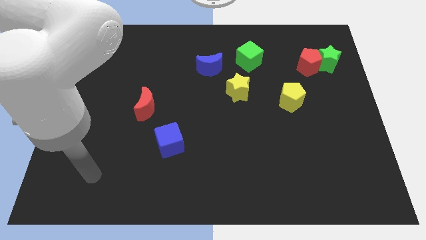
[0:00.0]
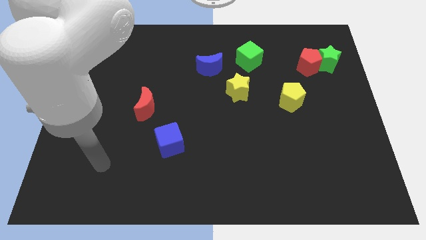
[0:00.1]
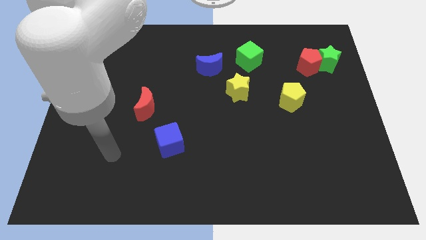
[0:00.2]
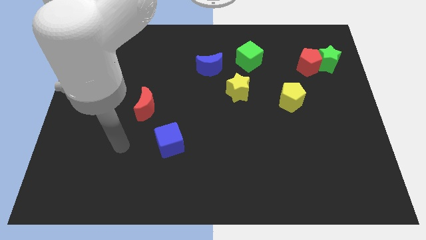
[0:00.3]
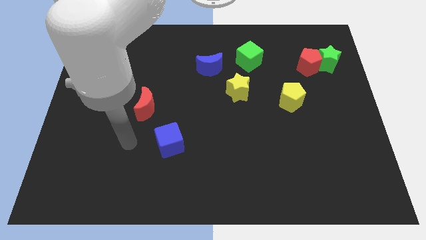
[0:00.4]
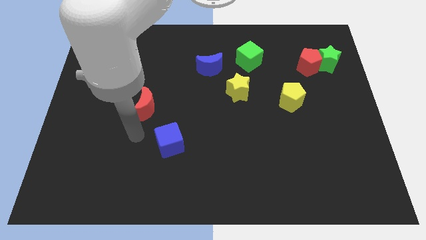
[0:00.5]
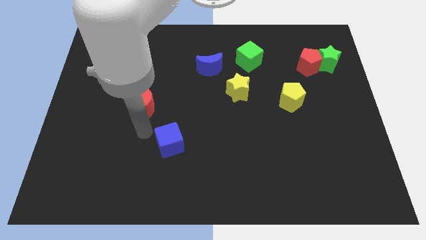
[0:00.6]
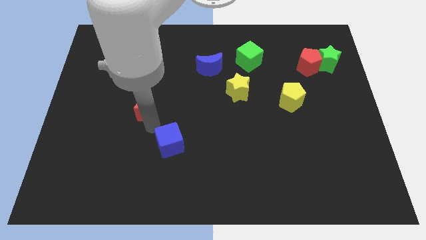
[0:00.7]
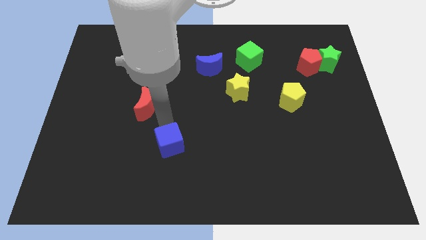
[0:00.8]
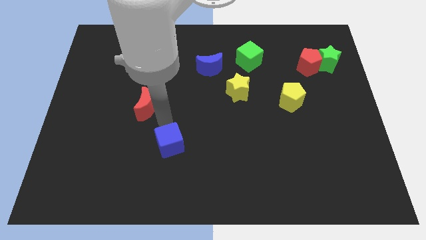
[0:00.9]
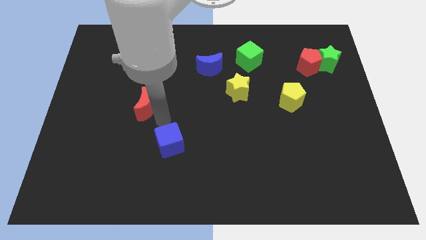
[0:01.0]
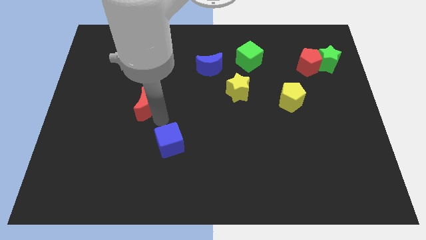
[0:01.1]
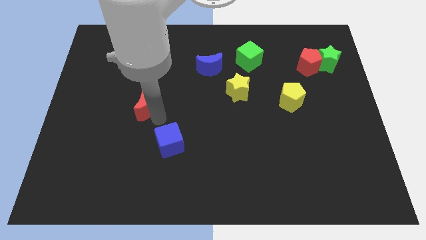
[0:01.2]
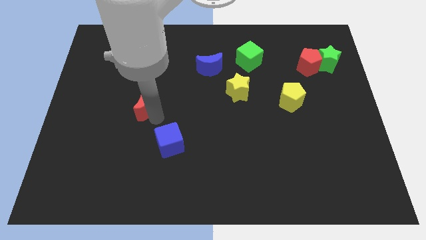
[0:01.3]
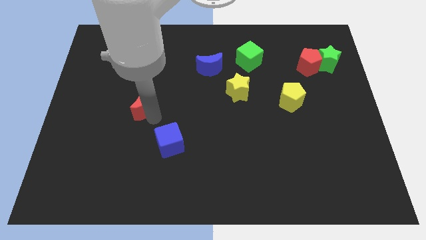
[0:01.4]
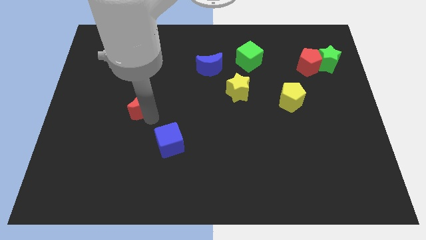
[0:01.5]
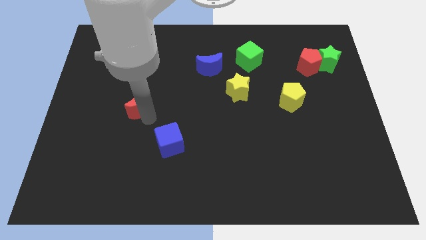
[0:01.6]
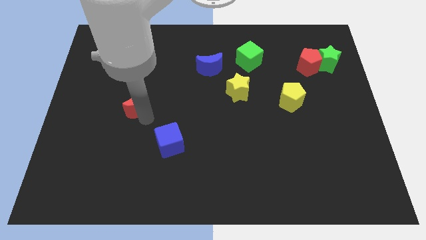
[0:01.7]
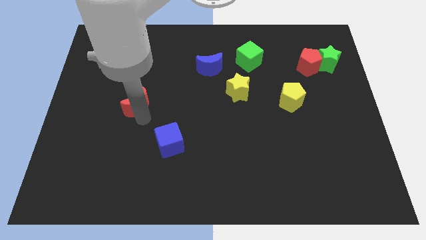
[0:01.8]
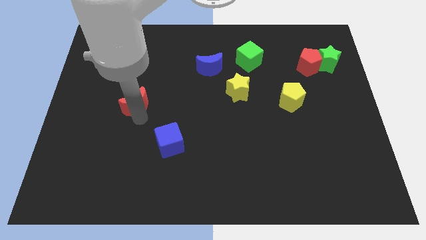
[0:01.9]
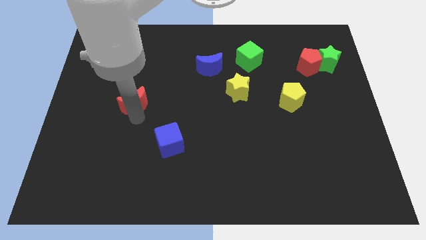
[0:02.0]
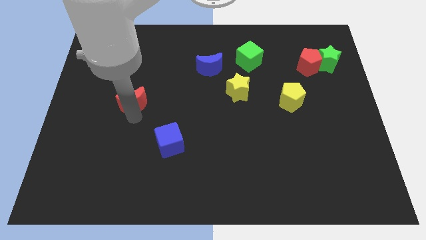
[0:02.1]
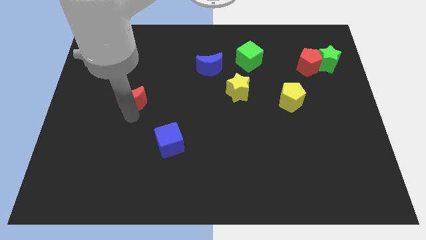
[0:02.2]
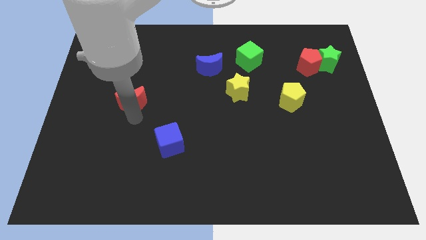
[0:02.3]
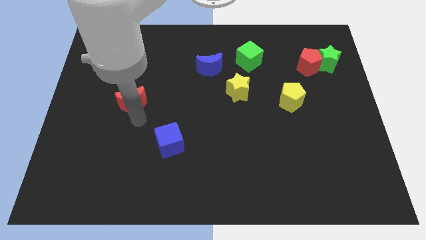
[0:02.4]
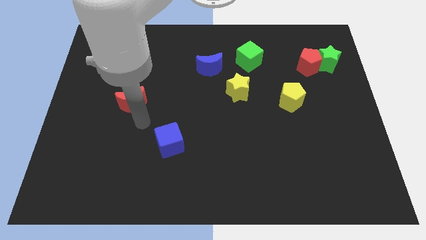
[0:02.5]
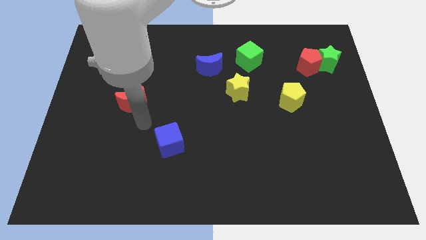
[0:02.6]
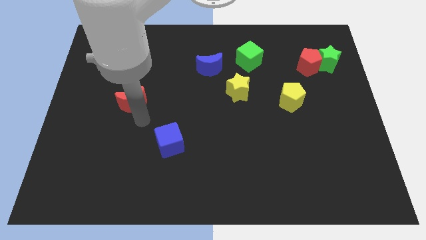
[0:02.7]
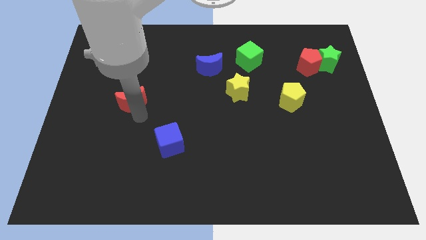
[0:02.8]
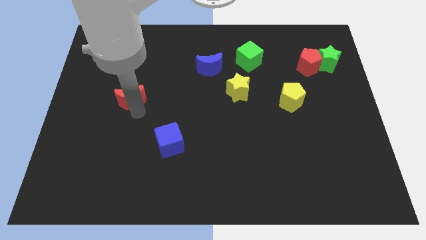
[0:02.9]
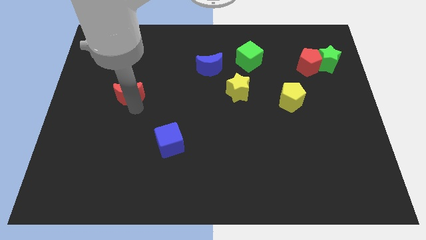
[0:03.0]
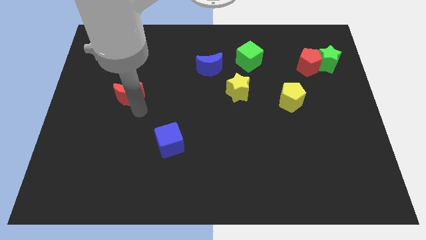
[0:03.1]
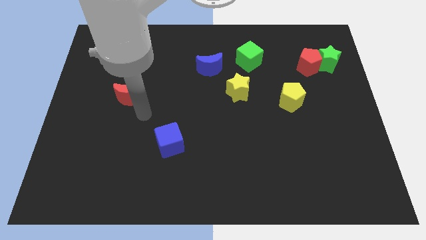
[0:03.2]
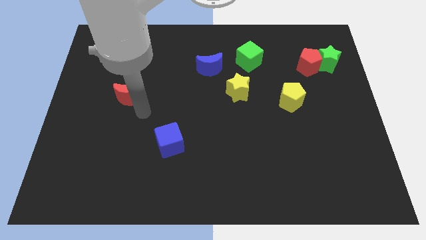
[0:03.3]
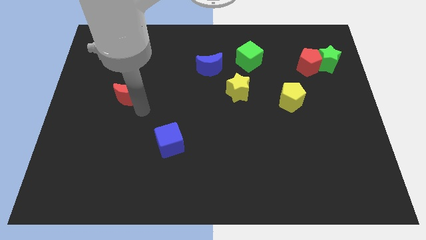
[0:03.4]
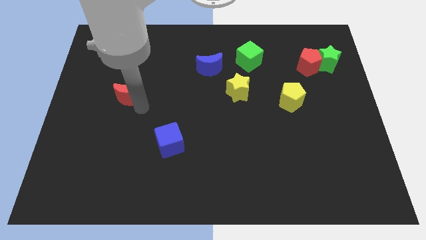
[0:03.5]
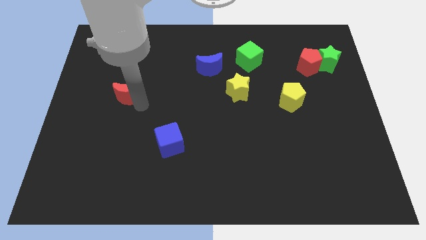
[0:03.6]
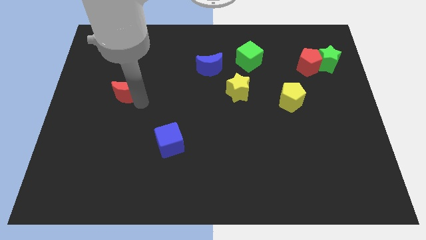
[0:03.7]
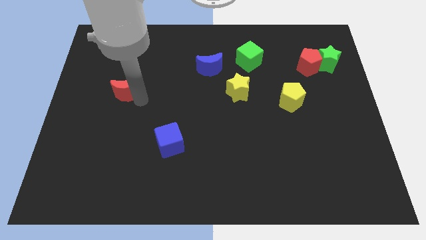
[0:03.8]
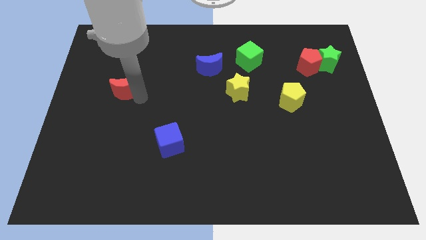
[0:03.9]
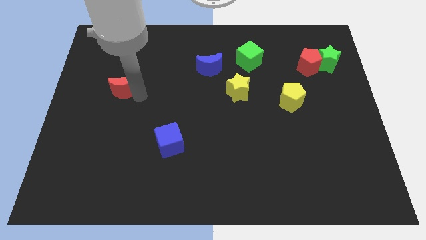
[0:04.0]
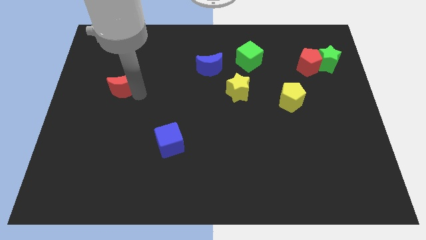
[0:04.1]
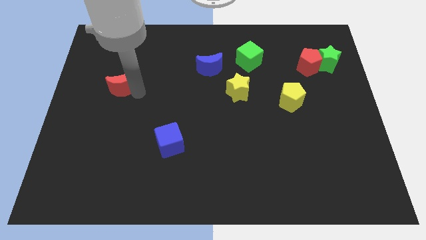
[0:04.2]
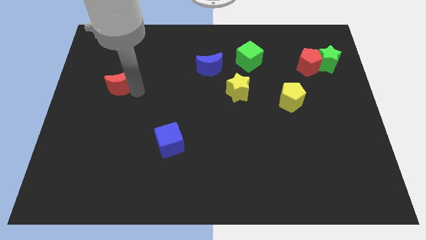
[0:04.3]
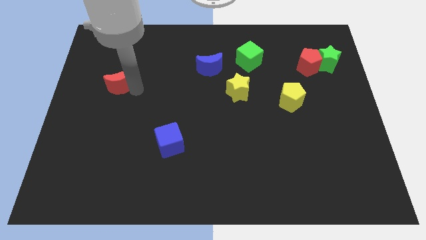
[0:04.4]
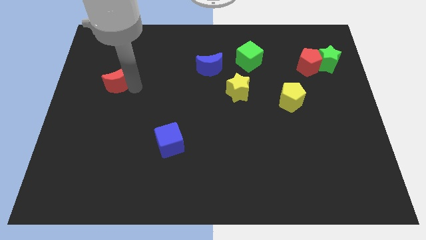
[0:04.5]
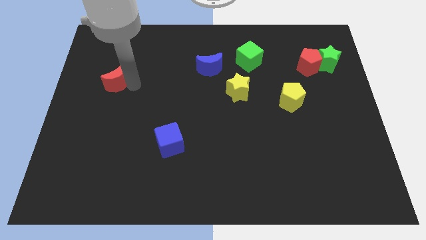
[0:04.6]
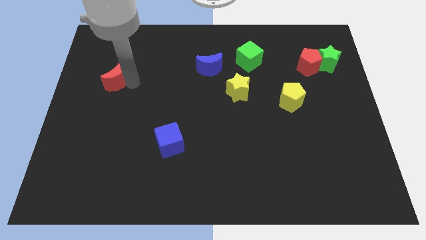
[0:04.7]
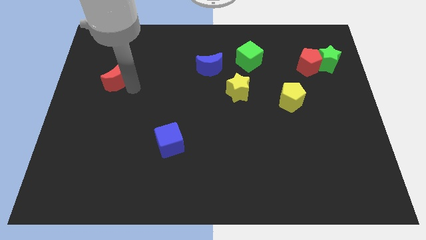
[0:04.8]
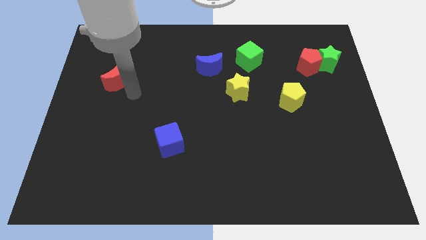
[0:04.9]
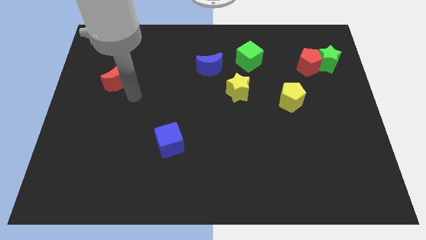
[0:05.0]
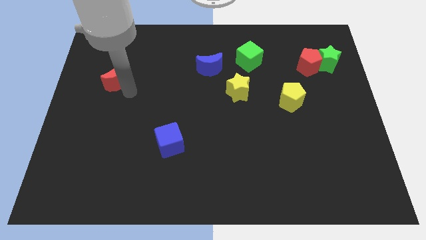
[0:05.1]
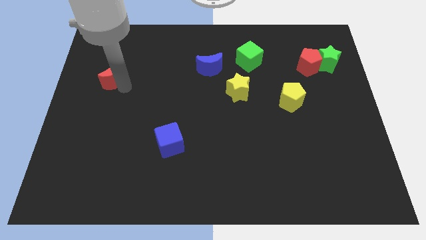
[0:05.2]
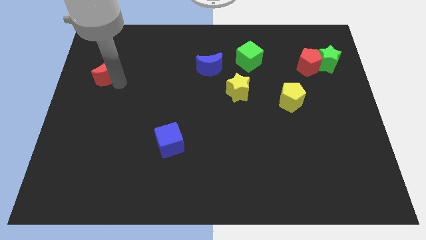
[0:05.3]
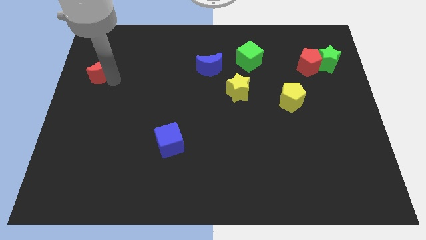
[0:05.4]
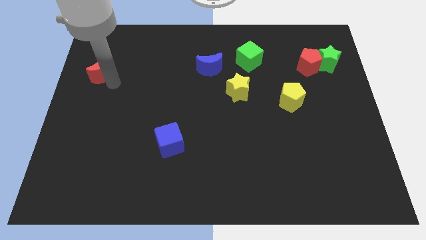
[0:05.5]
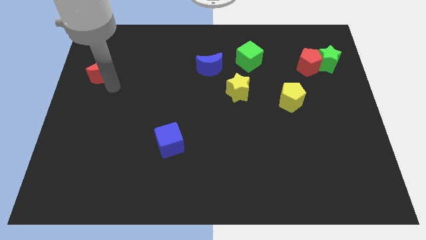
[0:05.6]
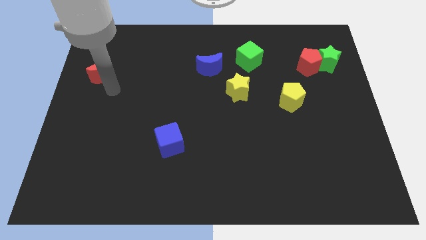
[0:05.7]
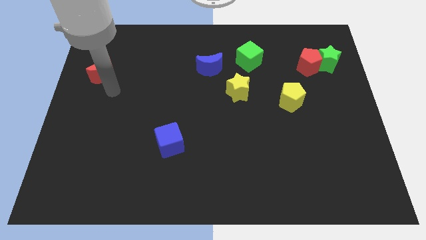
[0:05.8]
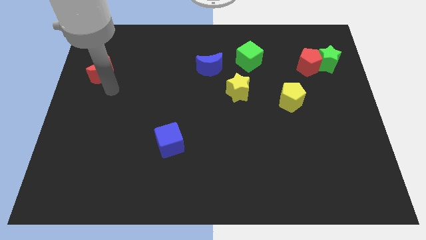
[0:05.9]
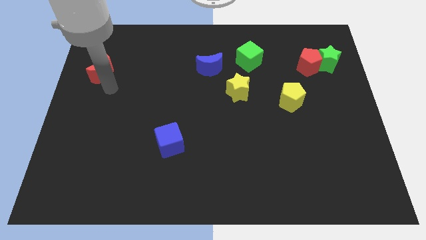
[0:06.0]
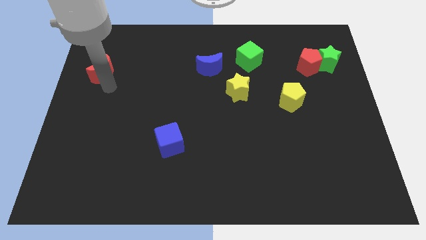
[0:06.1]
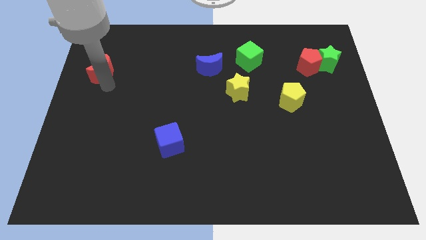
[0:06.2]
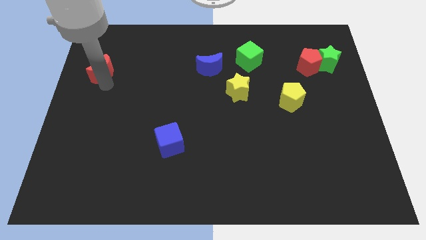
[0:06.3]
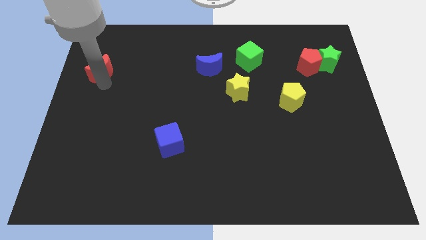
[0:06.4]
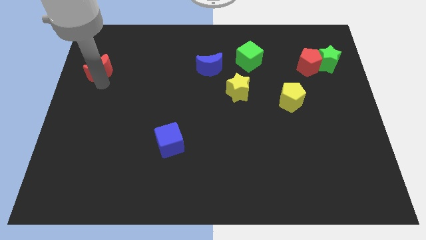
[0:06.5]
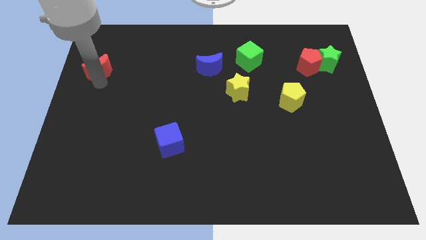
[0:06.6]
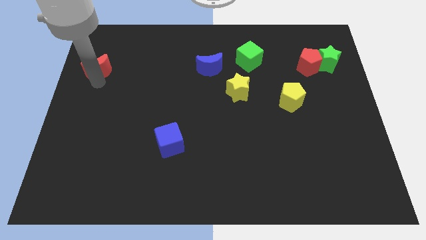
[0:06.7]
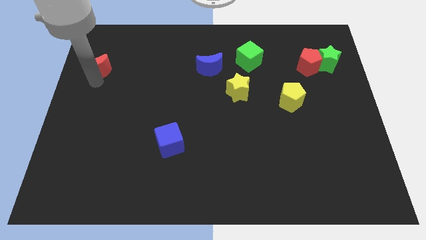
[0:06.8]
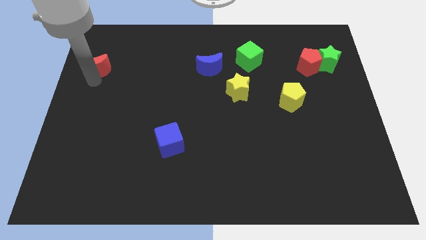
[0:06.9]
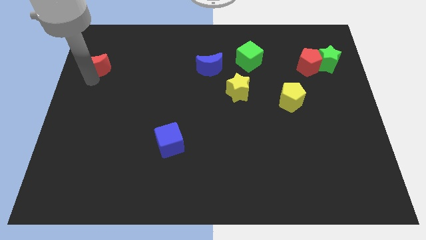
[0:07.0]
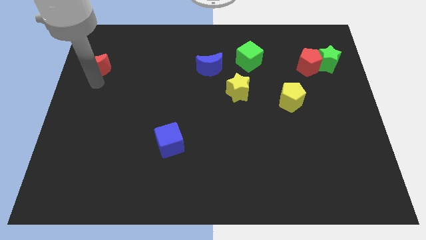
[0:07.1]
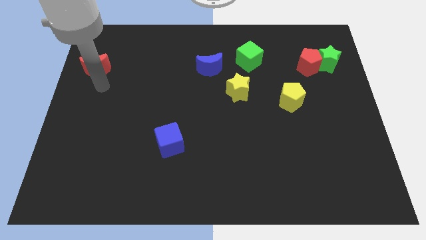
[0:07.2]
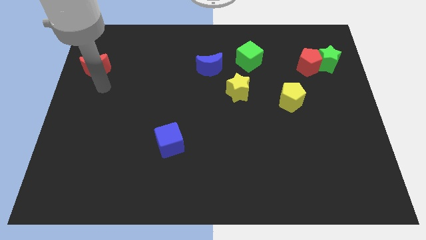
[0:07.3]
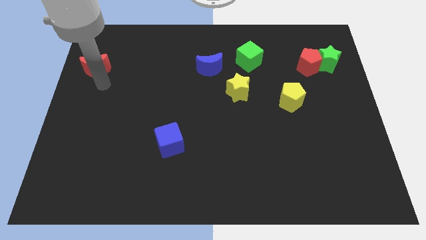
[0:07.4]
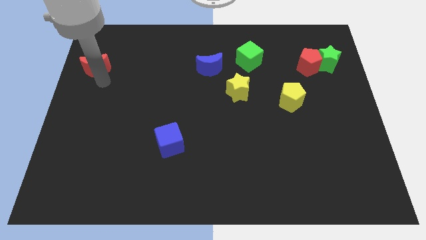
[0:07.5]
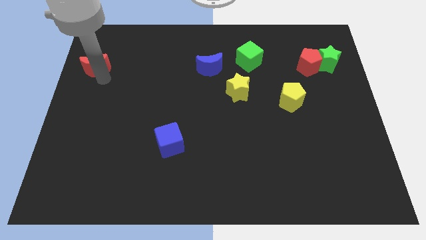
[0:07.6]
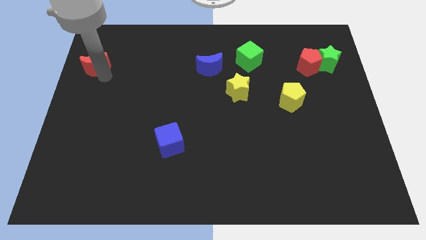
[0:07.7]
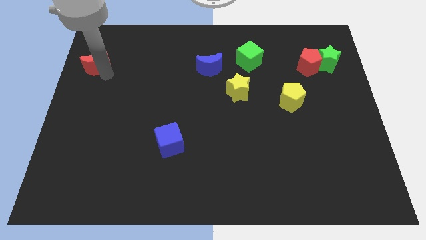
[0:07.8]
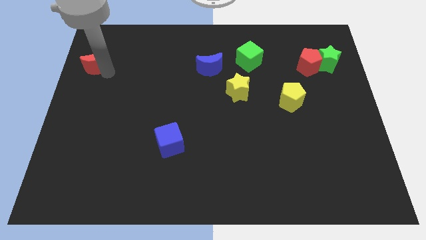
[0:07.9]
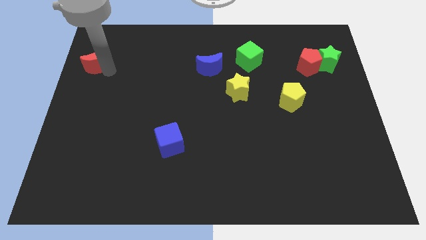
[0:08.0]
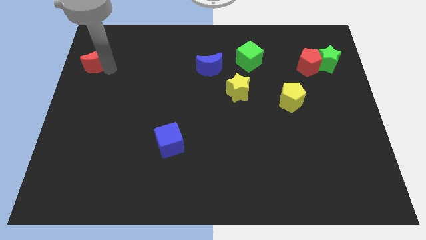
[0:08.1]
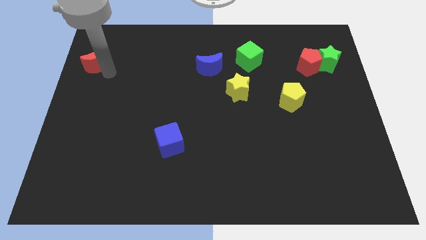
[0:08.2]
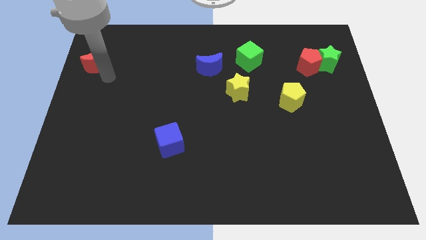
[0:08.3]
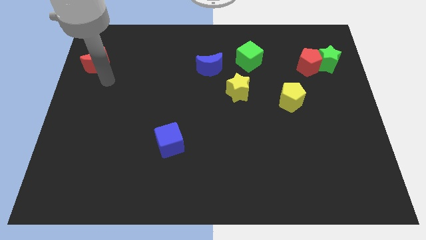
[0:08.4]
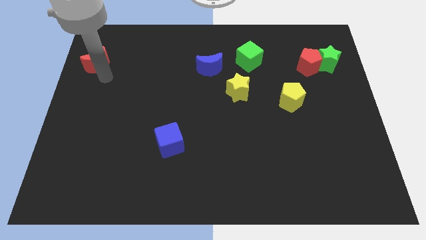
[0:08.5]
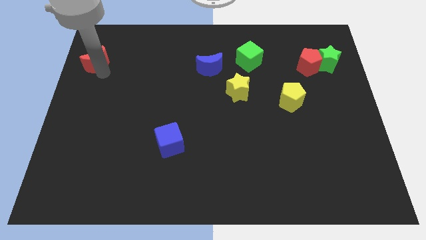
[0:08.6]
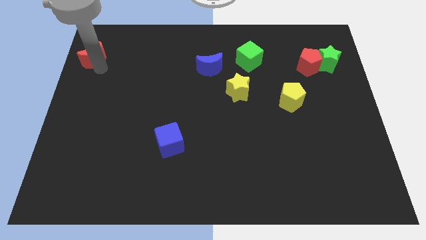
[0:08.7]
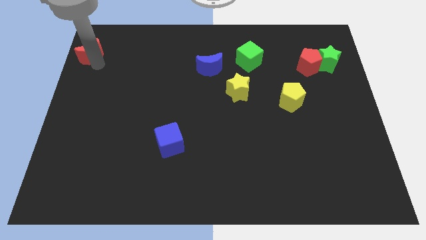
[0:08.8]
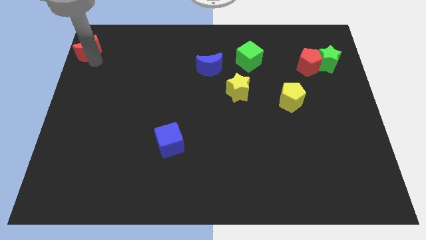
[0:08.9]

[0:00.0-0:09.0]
put the red moon to the top left of the board
